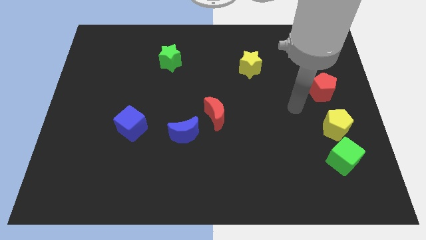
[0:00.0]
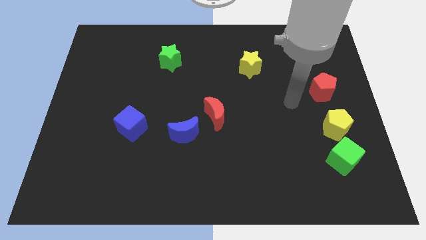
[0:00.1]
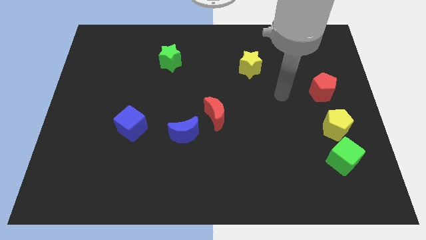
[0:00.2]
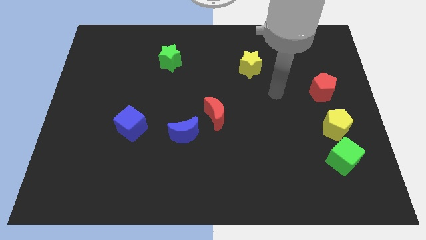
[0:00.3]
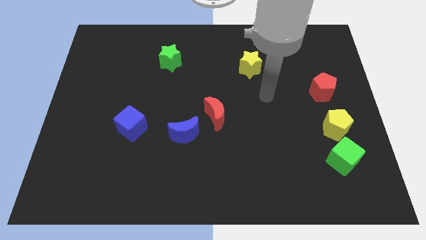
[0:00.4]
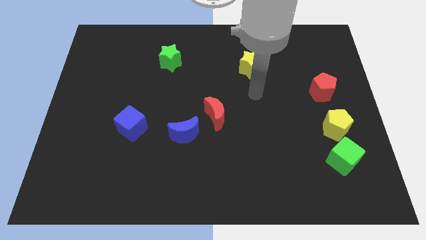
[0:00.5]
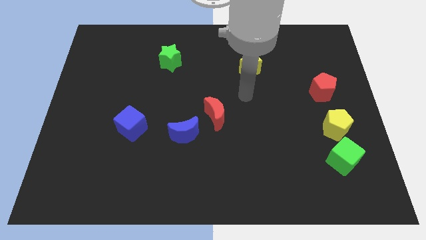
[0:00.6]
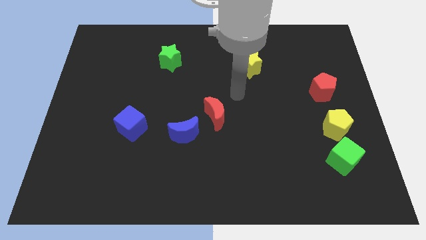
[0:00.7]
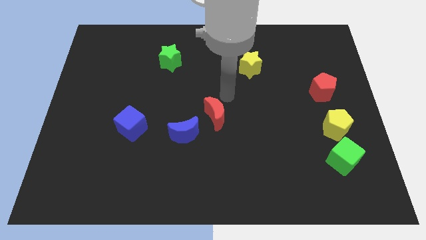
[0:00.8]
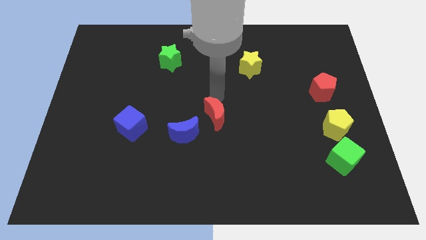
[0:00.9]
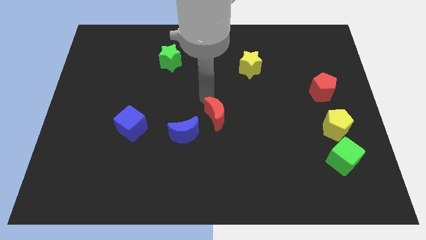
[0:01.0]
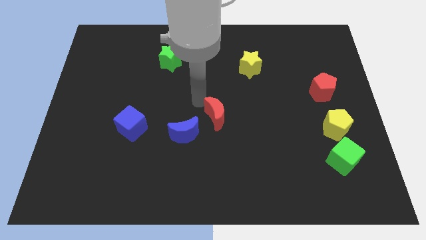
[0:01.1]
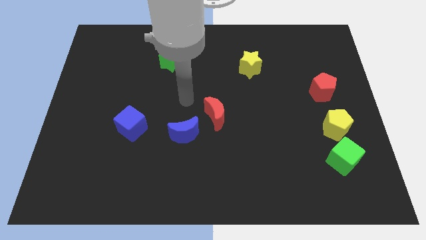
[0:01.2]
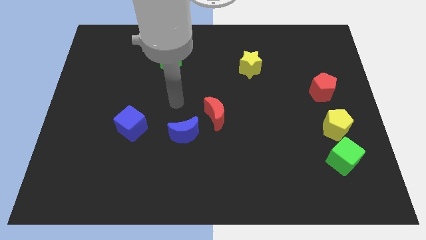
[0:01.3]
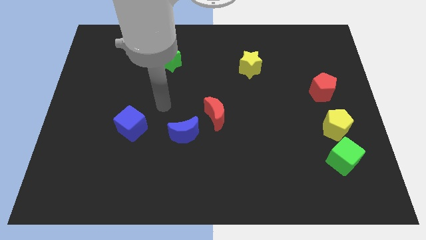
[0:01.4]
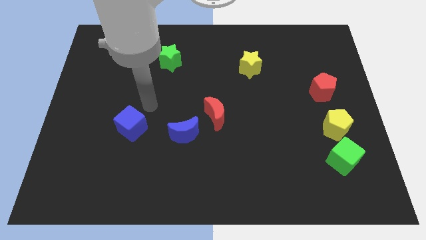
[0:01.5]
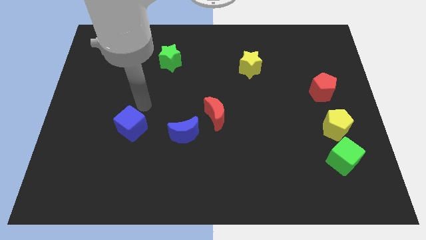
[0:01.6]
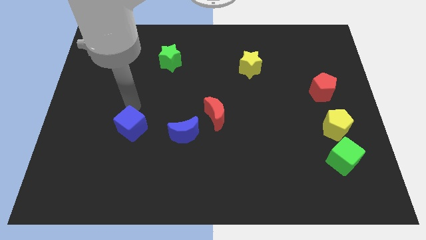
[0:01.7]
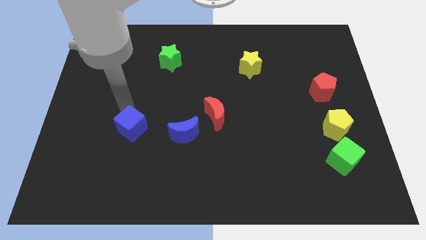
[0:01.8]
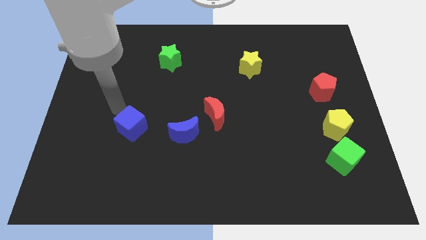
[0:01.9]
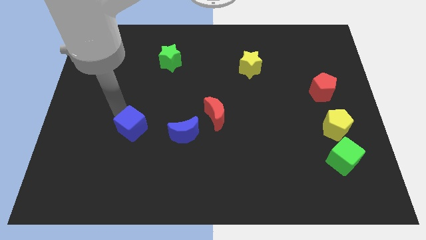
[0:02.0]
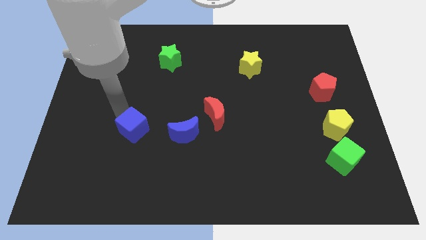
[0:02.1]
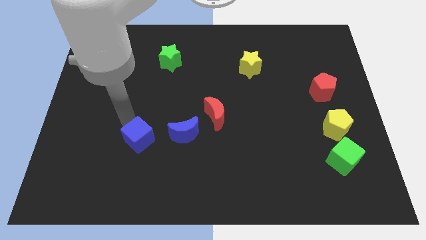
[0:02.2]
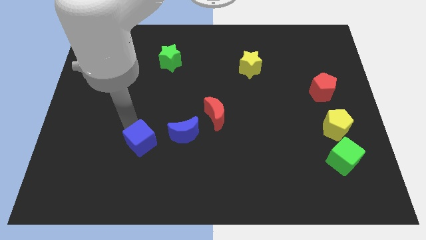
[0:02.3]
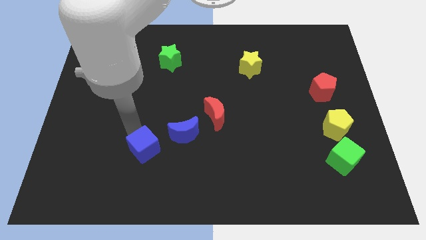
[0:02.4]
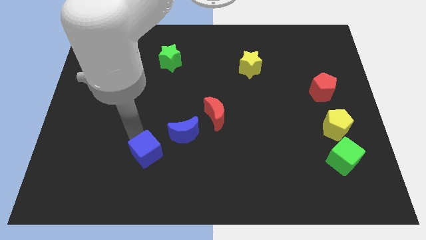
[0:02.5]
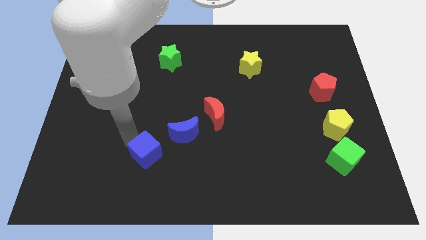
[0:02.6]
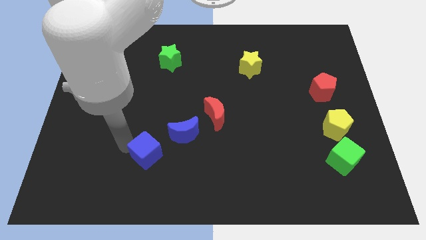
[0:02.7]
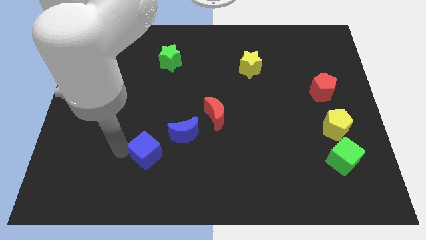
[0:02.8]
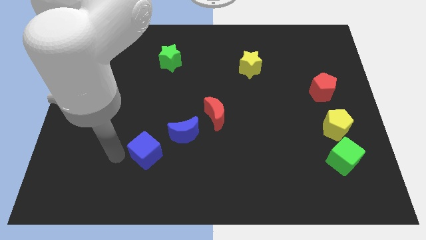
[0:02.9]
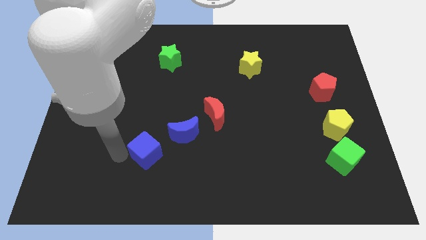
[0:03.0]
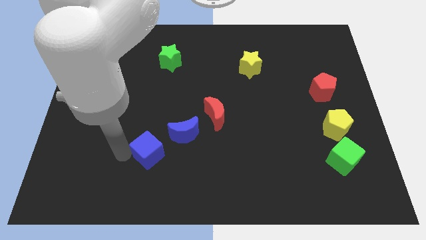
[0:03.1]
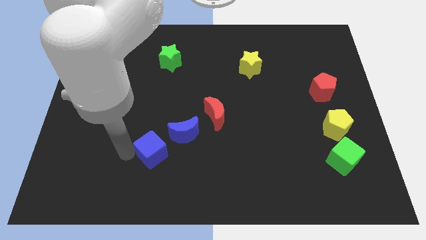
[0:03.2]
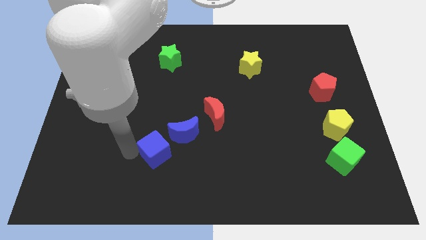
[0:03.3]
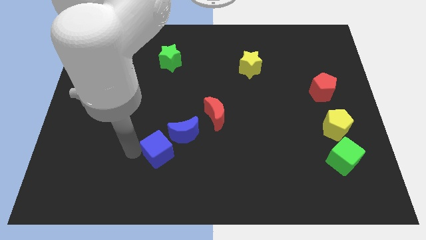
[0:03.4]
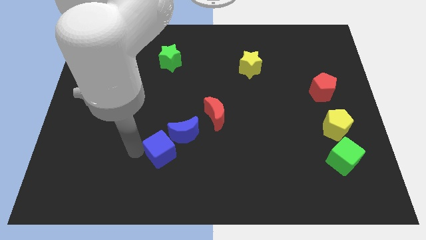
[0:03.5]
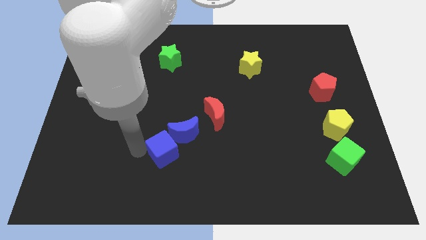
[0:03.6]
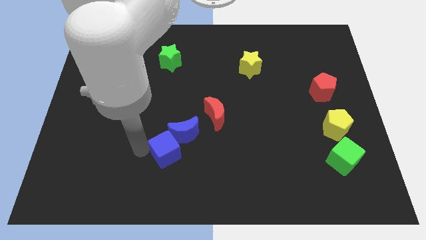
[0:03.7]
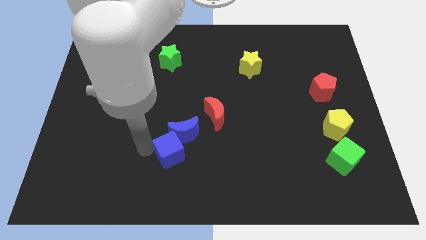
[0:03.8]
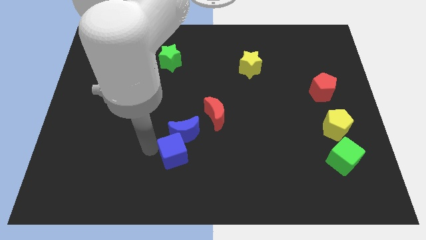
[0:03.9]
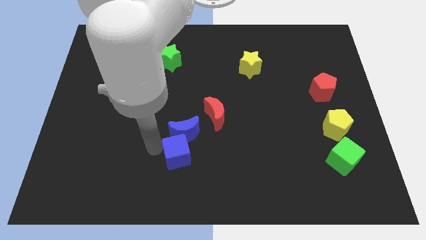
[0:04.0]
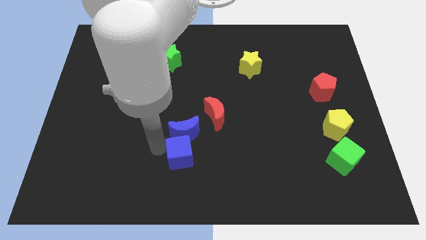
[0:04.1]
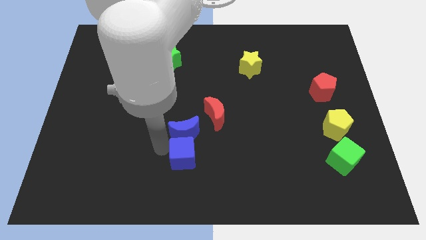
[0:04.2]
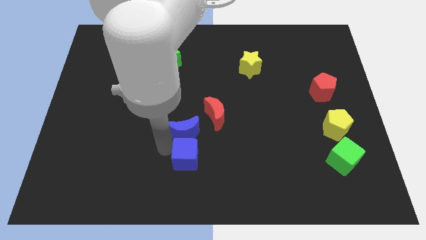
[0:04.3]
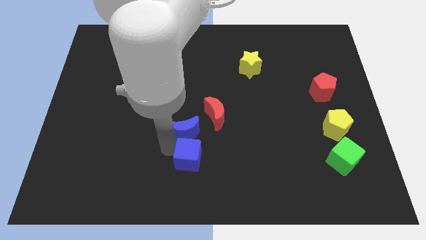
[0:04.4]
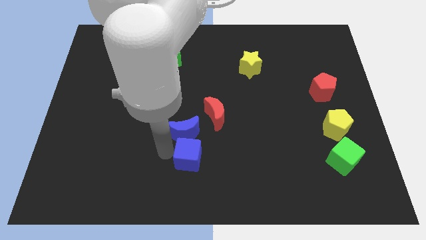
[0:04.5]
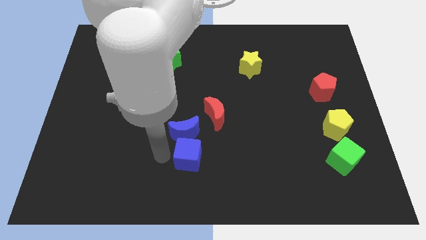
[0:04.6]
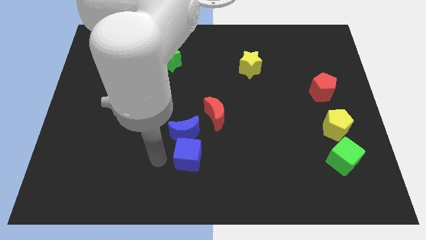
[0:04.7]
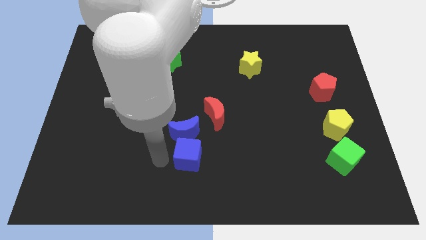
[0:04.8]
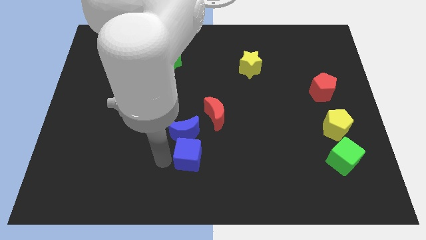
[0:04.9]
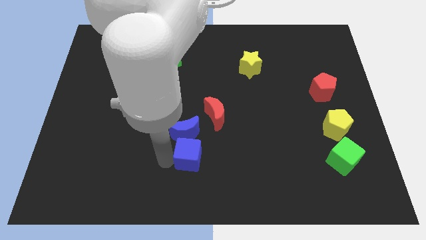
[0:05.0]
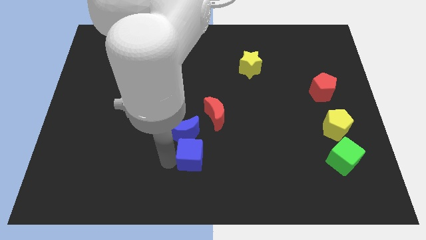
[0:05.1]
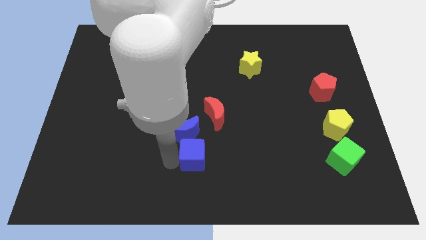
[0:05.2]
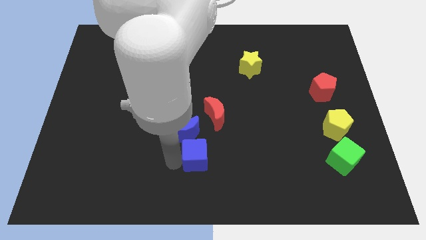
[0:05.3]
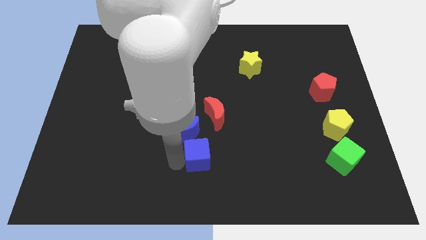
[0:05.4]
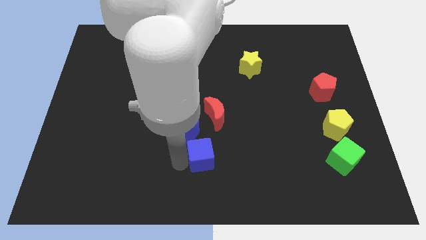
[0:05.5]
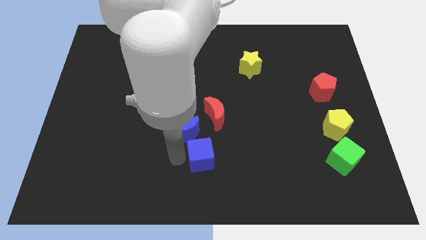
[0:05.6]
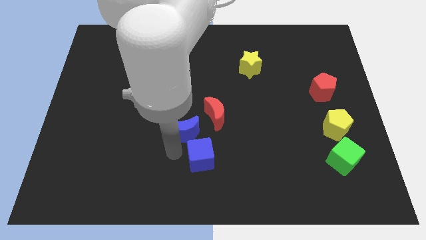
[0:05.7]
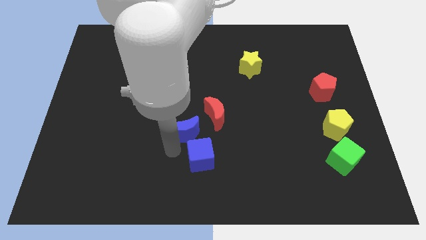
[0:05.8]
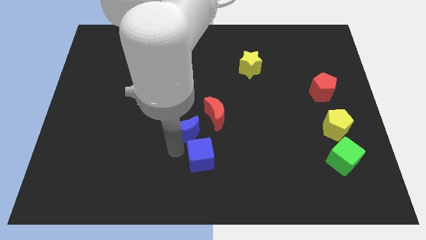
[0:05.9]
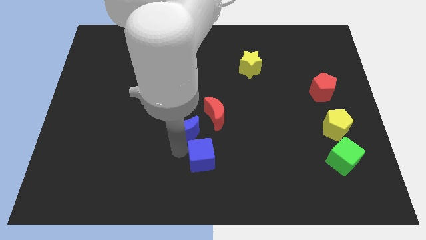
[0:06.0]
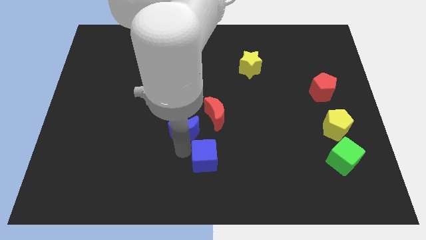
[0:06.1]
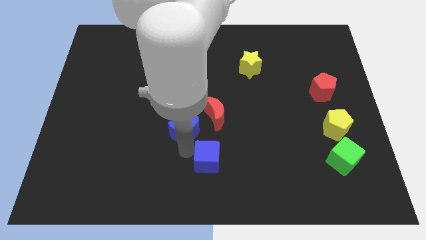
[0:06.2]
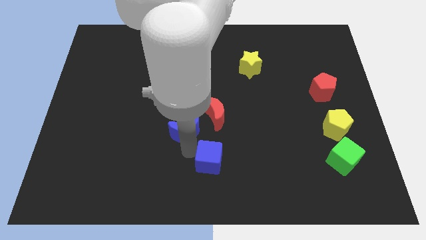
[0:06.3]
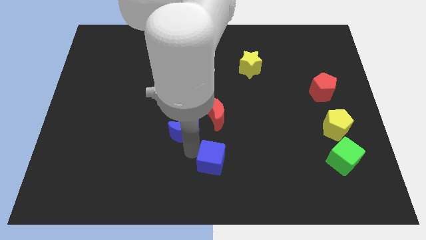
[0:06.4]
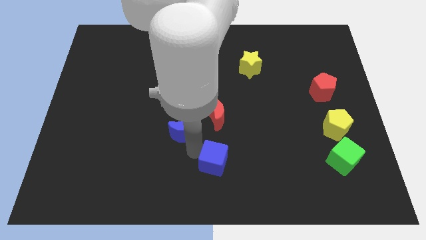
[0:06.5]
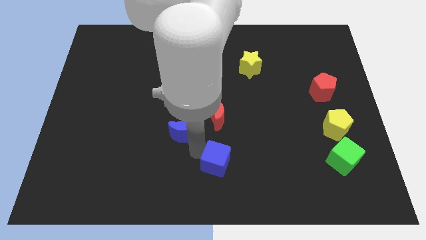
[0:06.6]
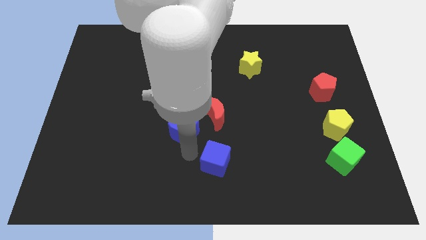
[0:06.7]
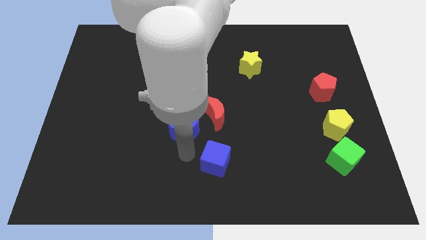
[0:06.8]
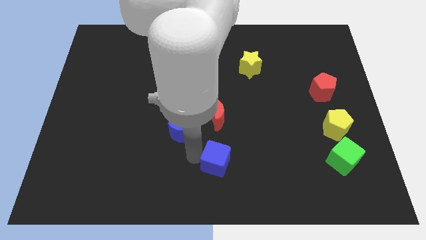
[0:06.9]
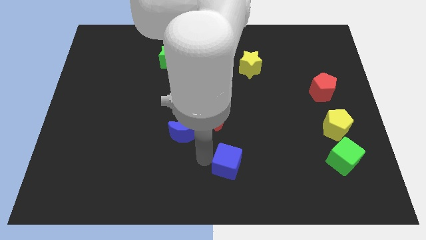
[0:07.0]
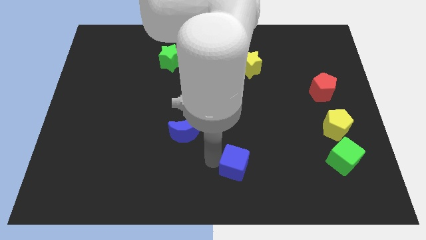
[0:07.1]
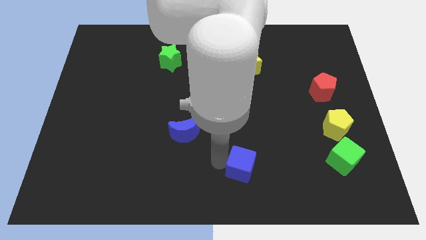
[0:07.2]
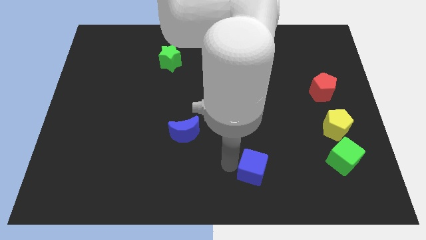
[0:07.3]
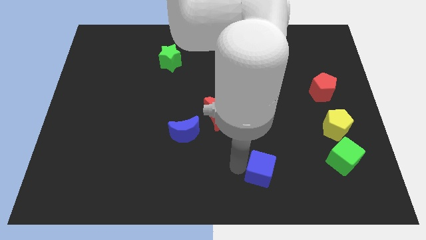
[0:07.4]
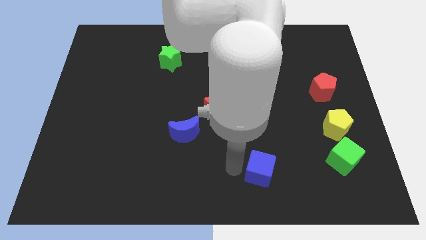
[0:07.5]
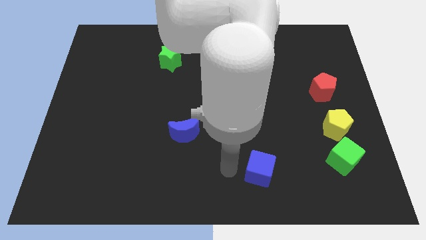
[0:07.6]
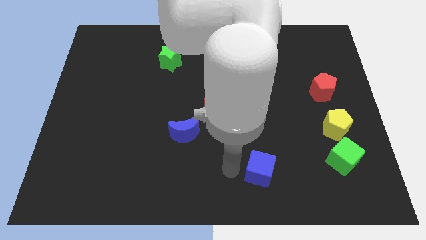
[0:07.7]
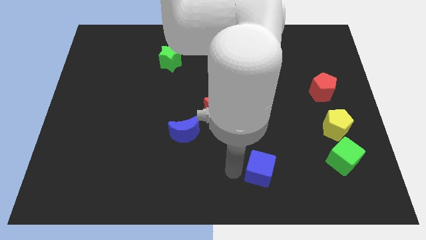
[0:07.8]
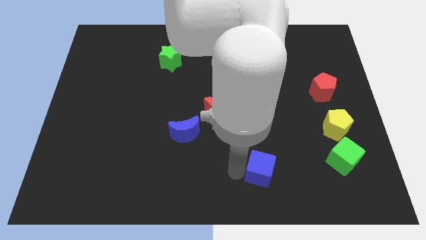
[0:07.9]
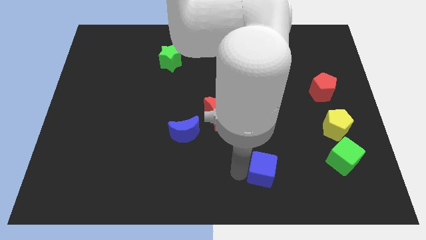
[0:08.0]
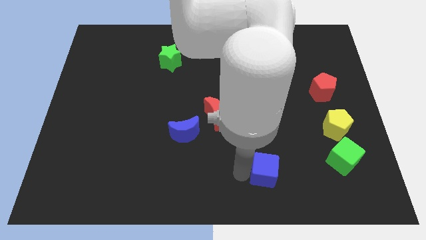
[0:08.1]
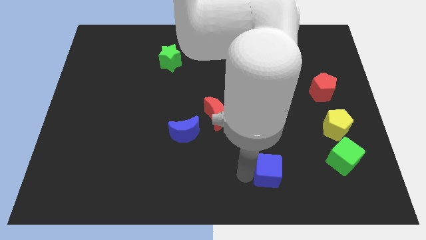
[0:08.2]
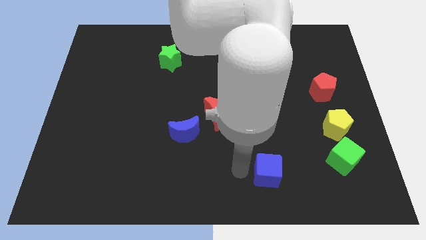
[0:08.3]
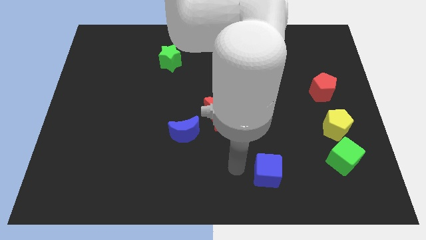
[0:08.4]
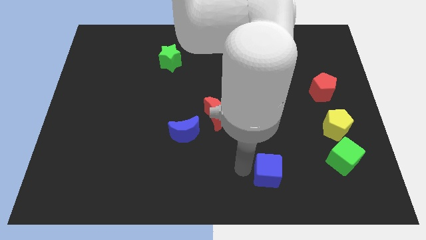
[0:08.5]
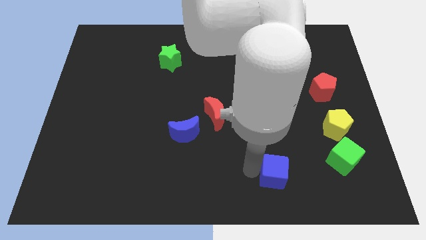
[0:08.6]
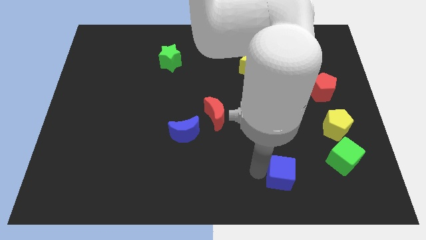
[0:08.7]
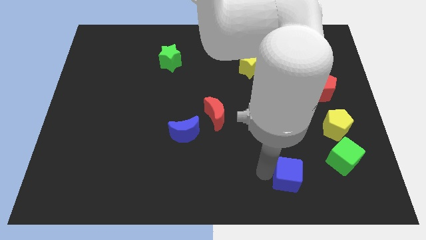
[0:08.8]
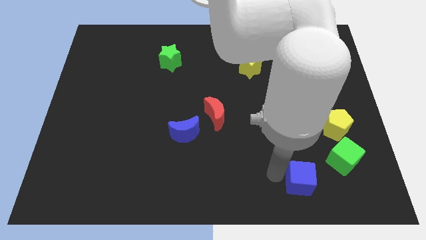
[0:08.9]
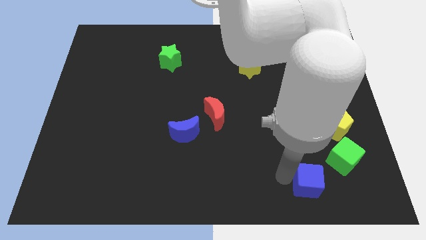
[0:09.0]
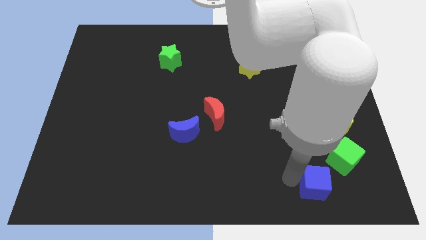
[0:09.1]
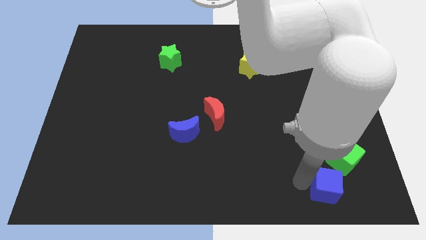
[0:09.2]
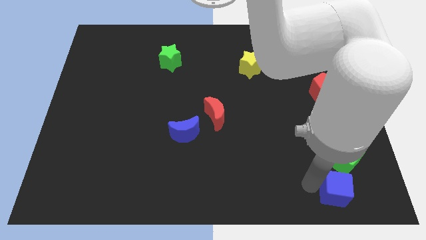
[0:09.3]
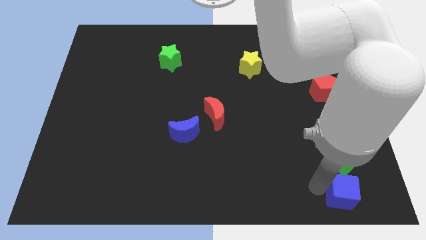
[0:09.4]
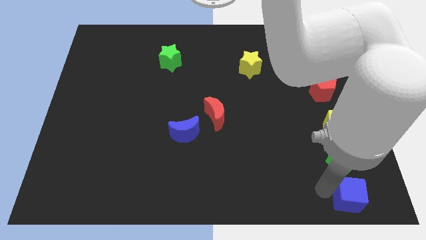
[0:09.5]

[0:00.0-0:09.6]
put the blue cube to the bottom right corner
